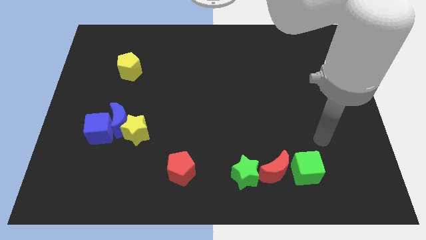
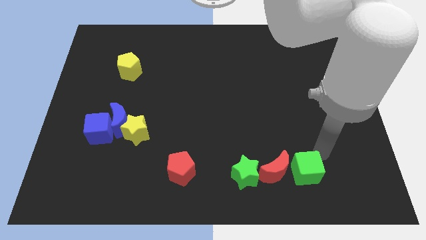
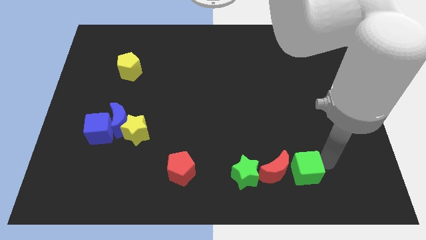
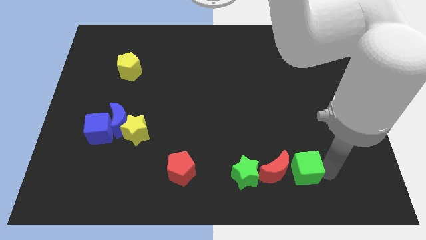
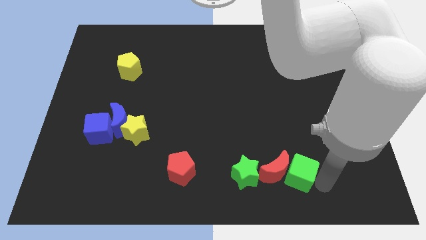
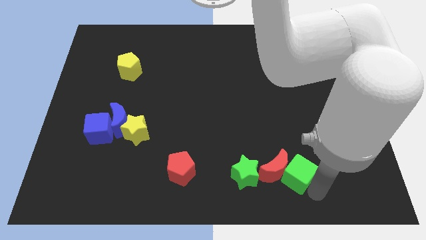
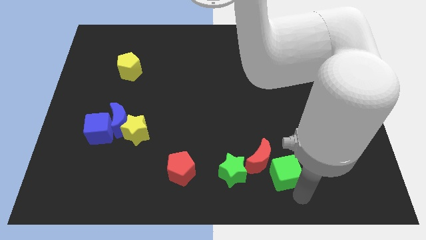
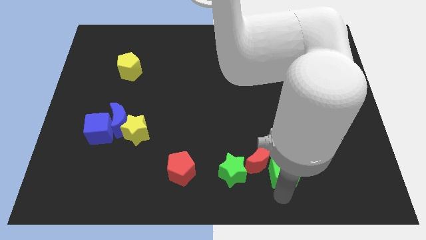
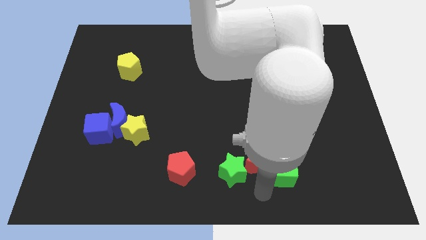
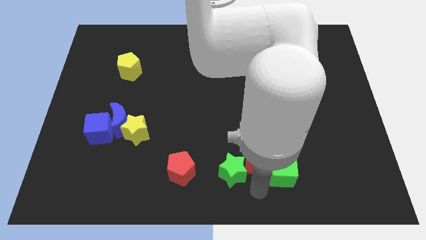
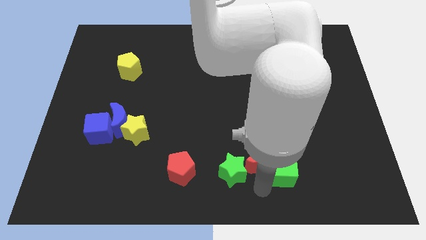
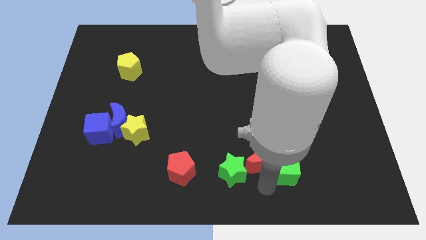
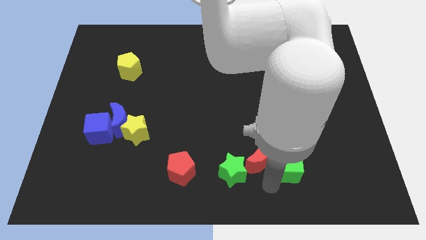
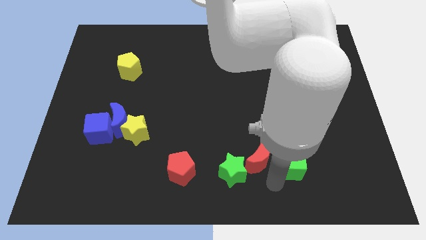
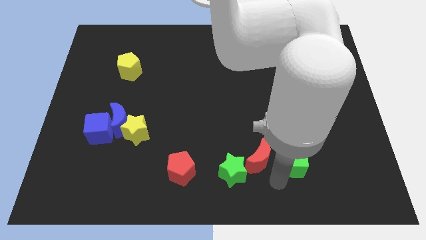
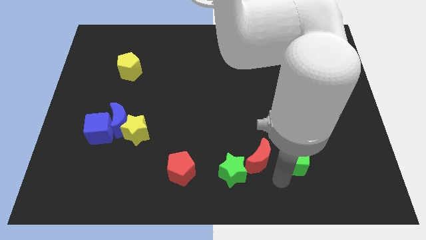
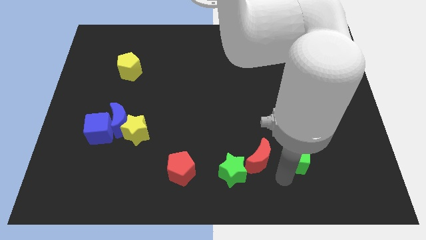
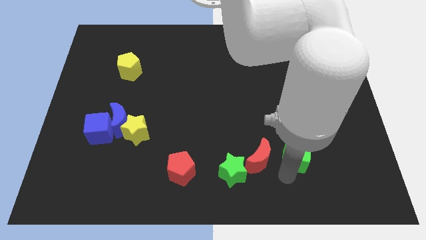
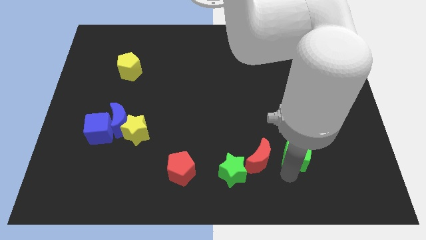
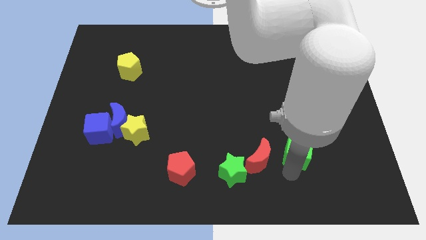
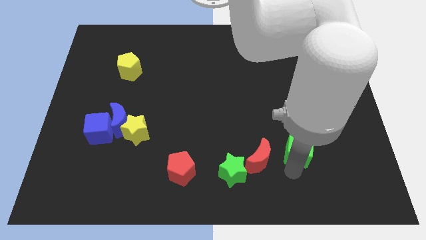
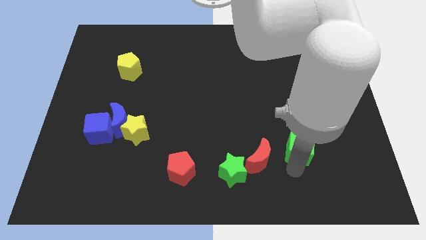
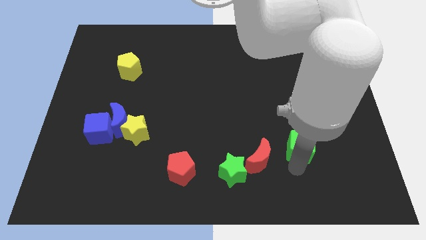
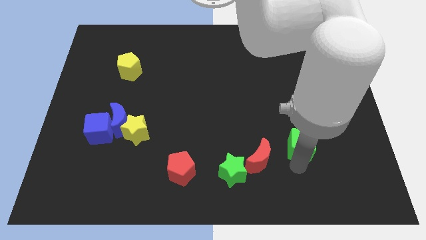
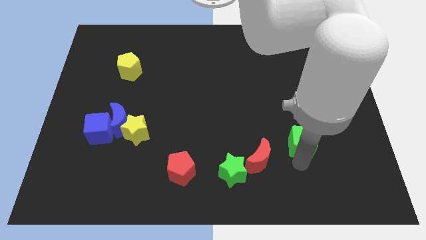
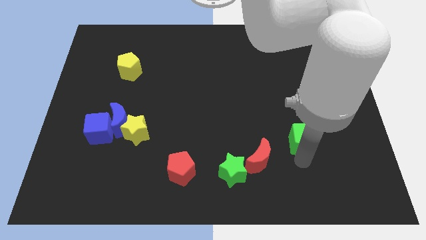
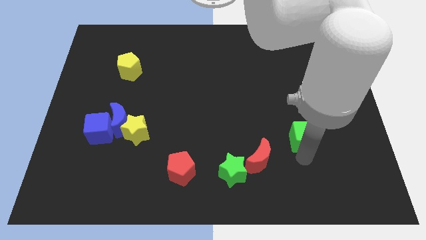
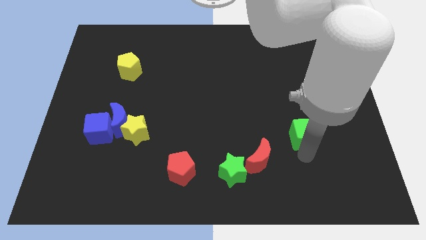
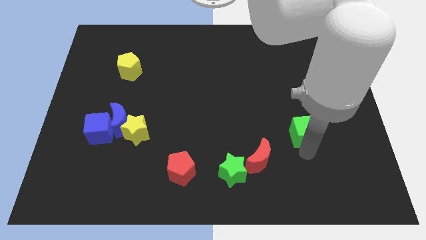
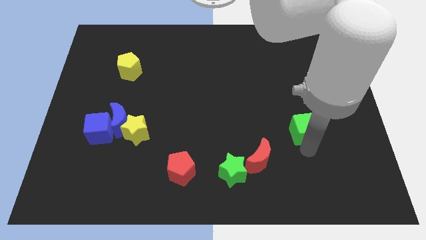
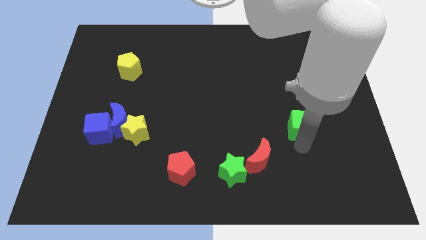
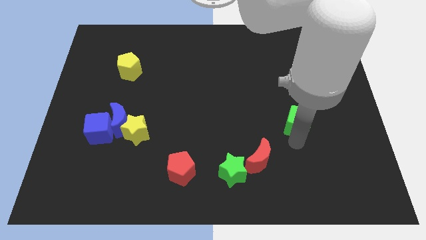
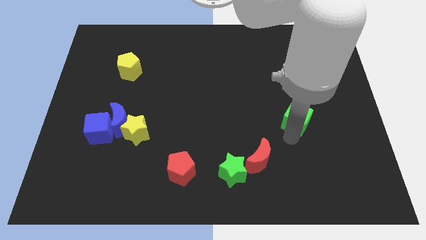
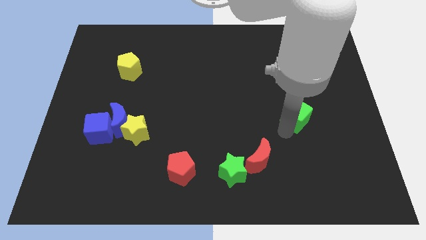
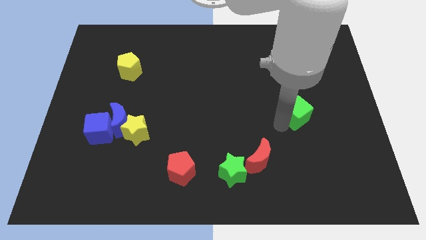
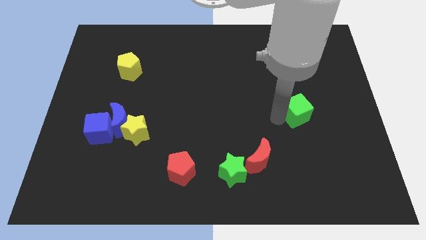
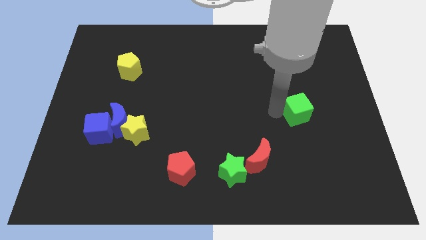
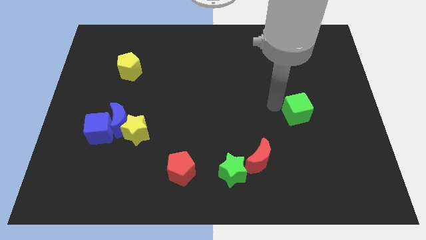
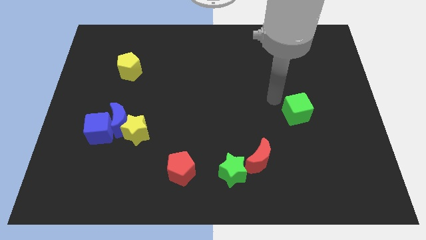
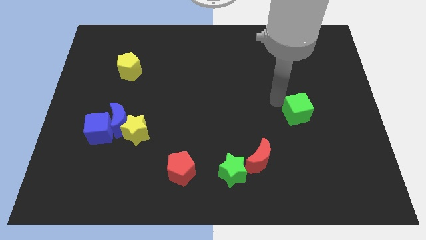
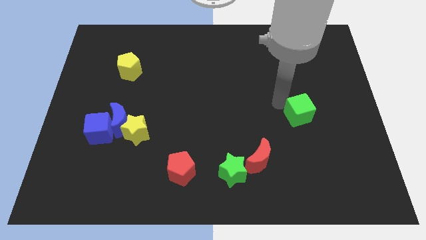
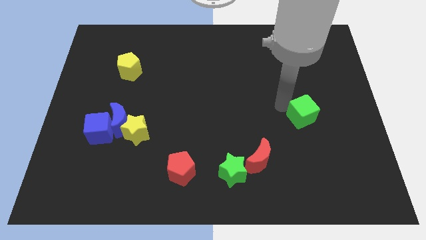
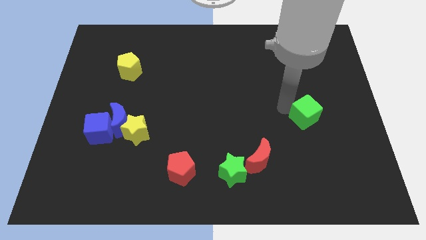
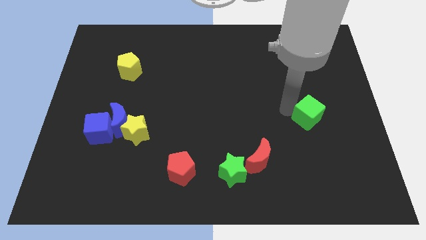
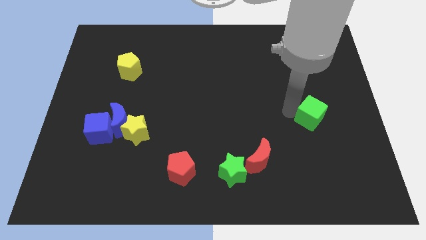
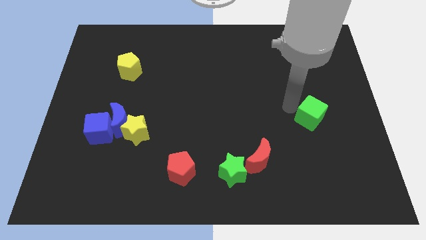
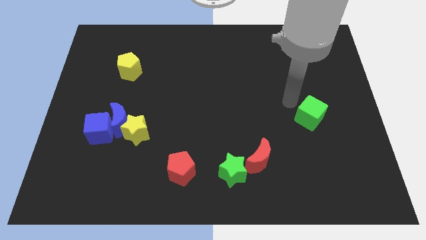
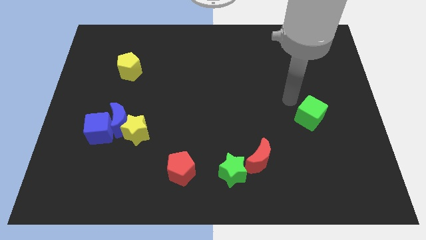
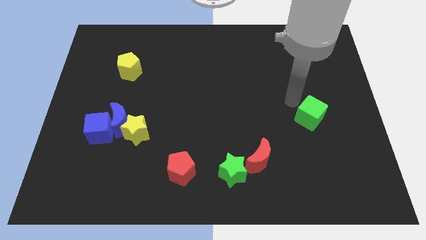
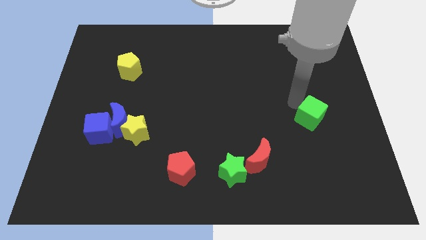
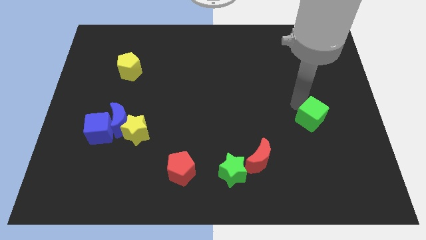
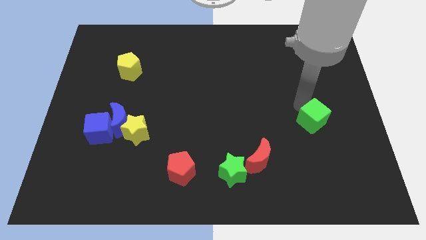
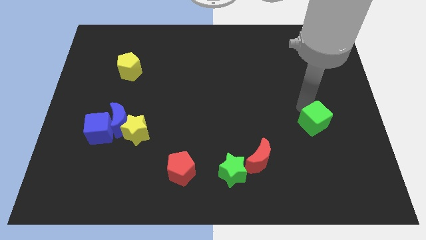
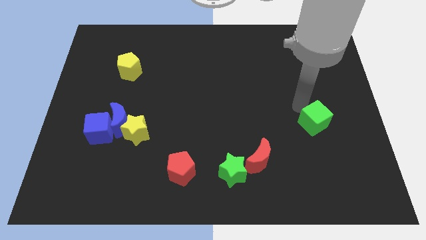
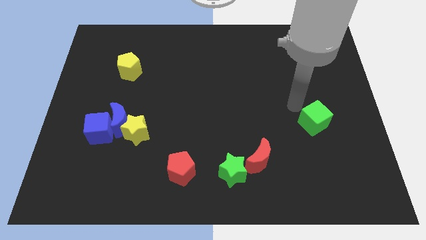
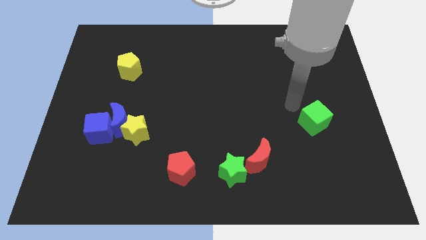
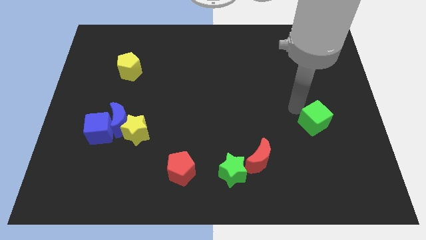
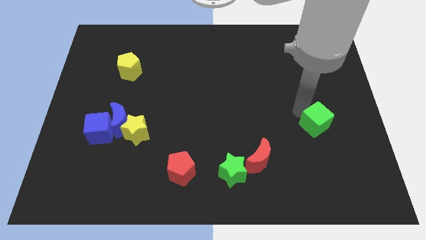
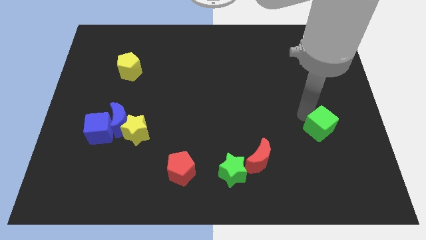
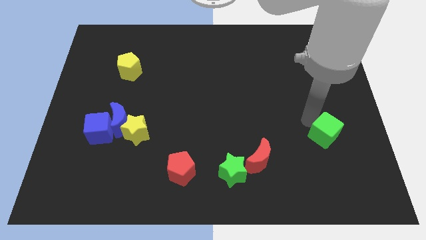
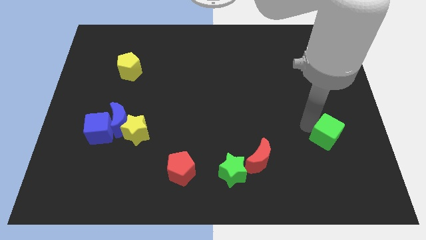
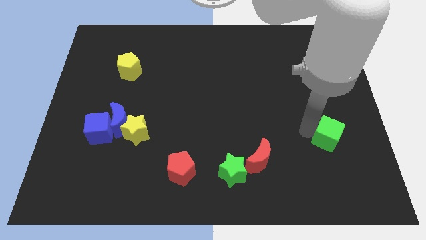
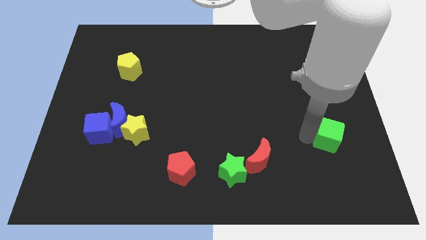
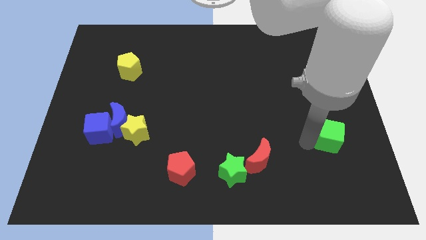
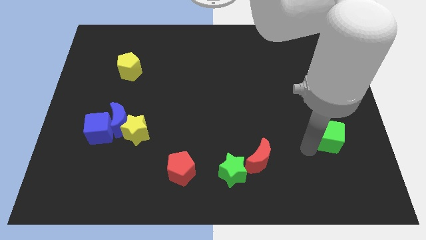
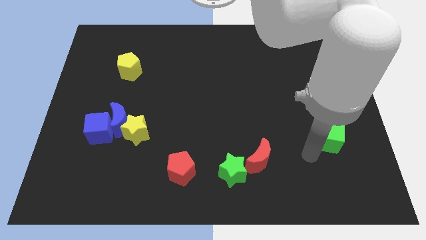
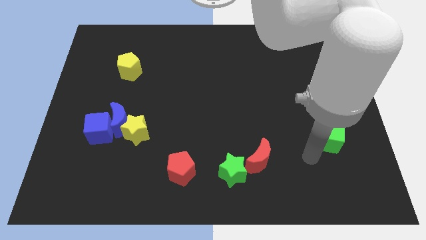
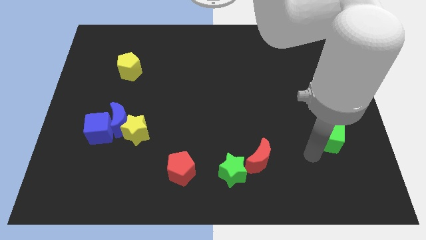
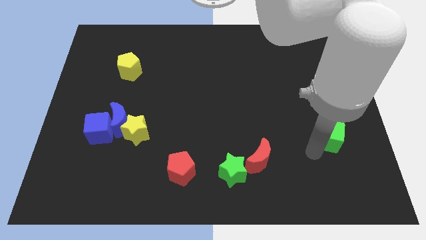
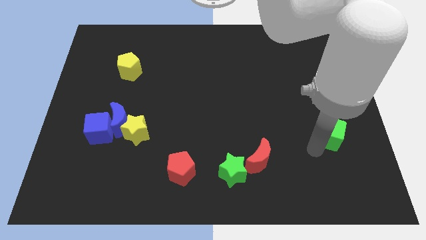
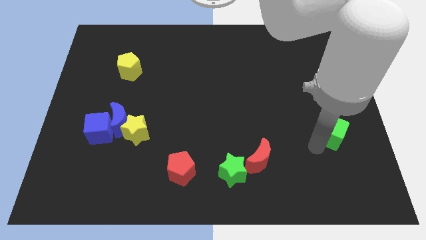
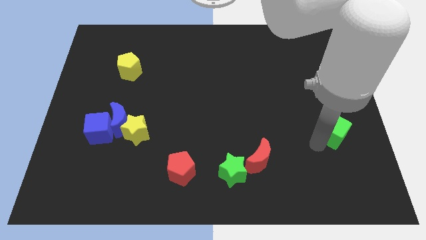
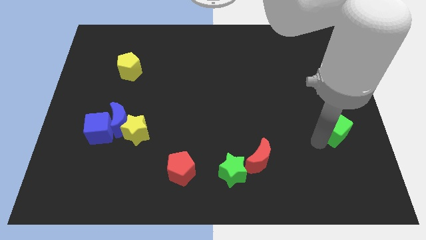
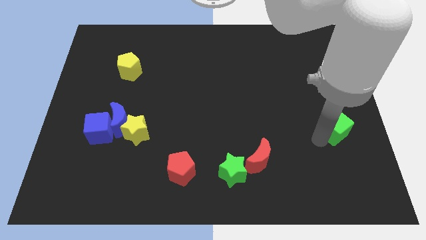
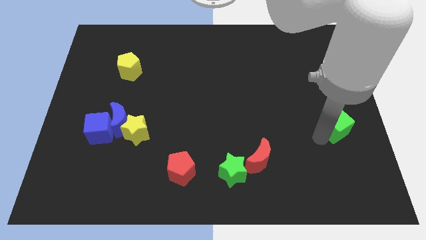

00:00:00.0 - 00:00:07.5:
slide the green cube to the right side

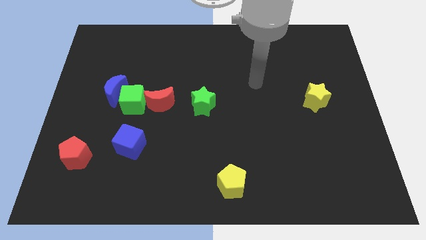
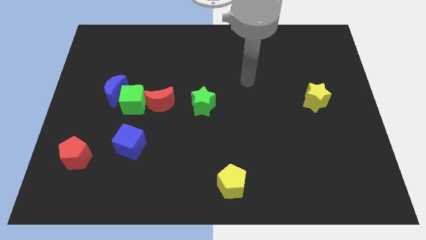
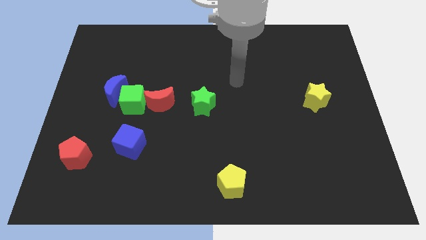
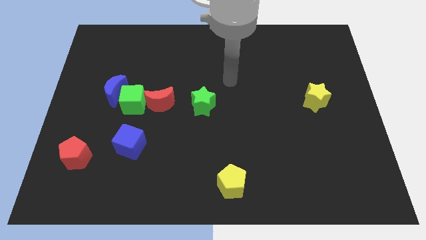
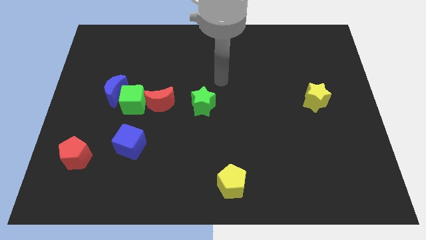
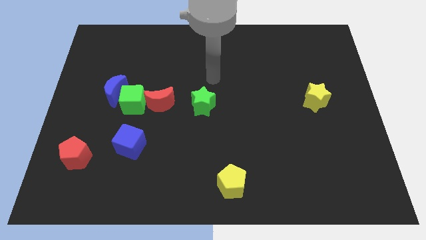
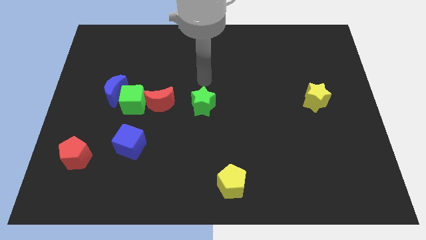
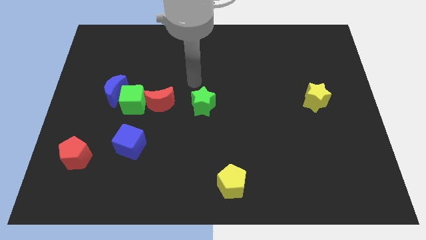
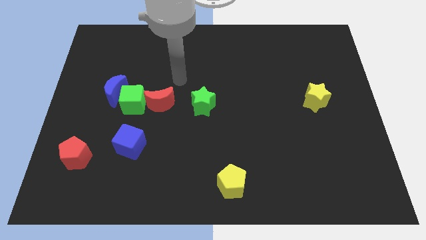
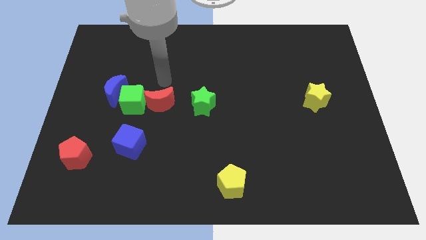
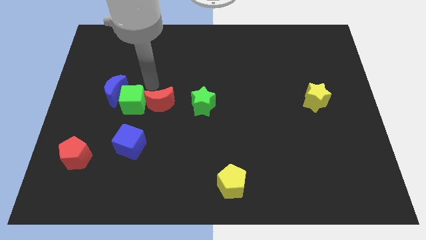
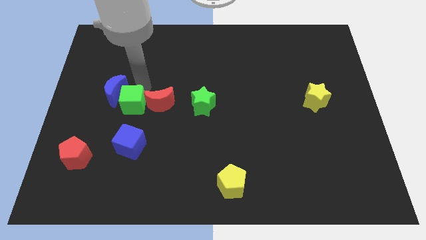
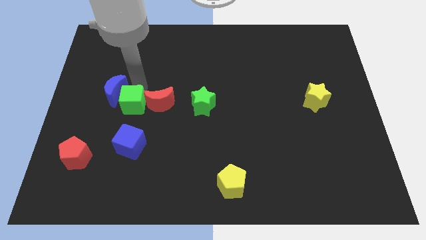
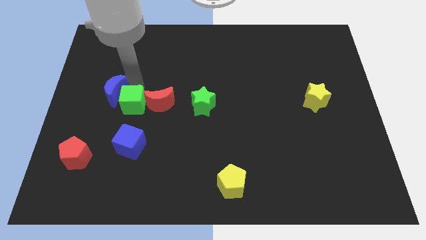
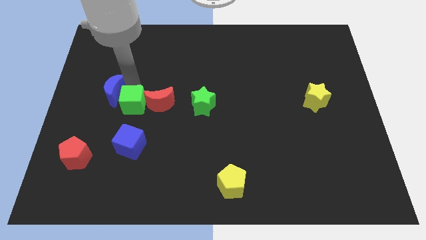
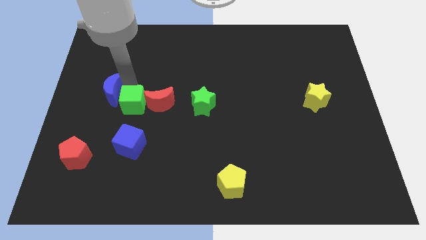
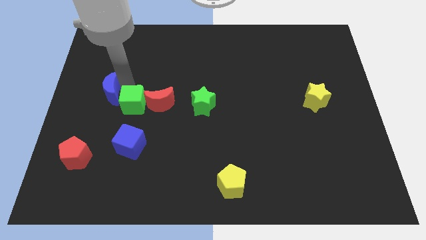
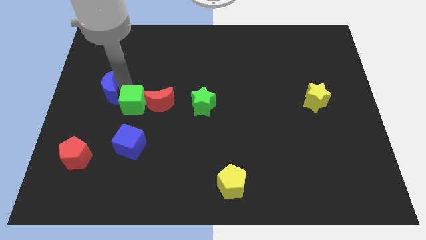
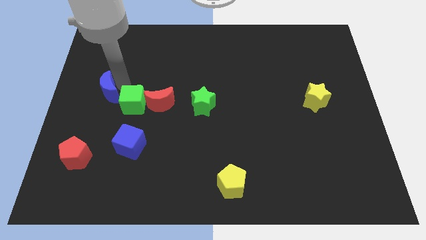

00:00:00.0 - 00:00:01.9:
move the blue moon to the left side
